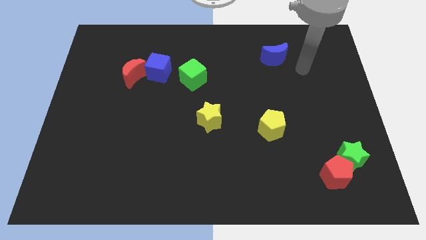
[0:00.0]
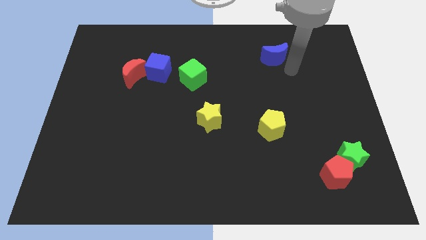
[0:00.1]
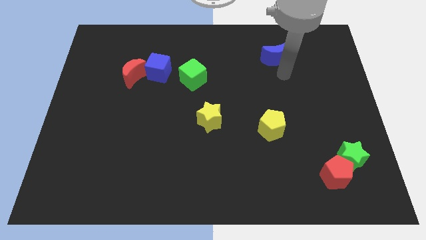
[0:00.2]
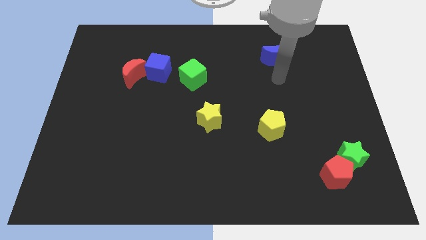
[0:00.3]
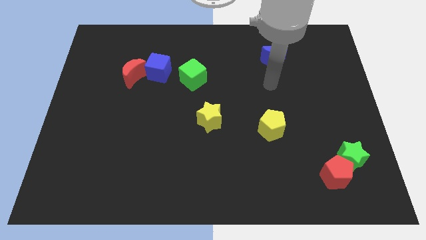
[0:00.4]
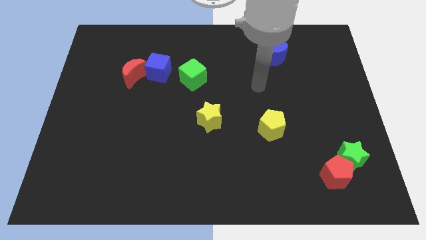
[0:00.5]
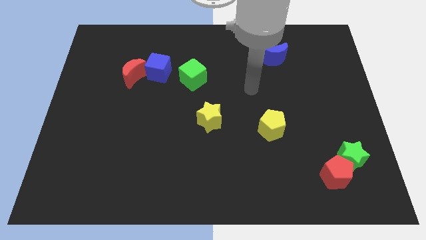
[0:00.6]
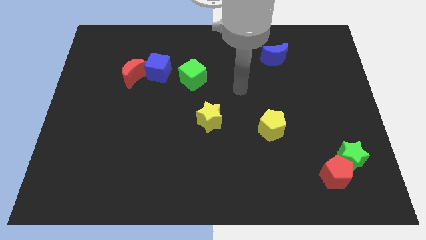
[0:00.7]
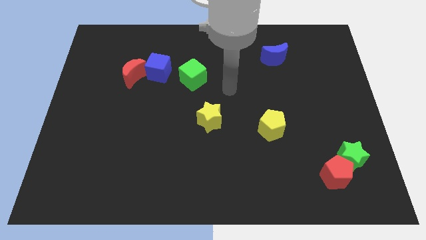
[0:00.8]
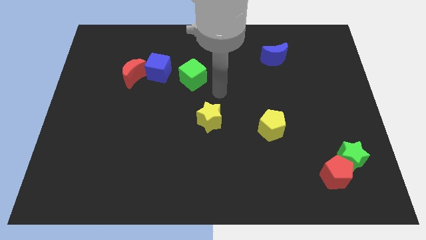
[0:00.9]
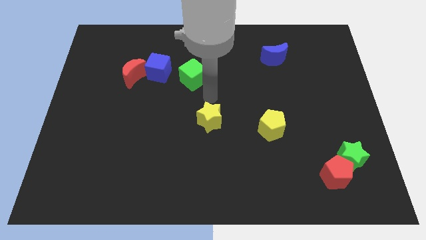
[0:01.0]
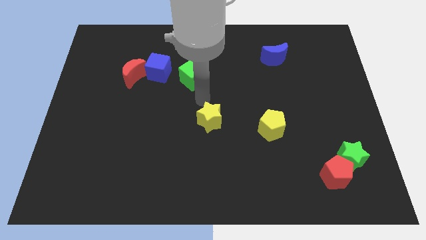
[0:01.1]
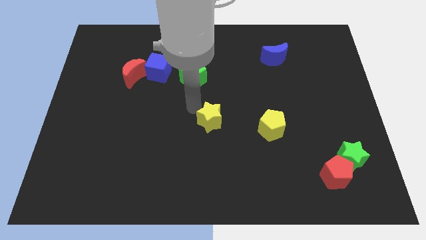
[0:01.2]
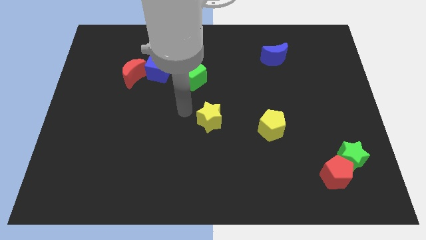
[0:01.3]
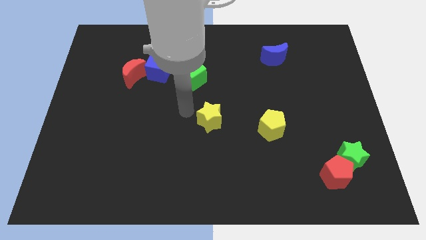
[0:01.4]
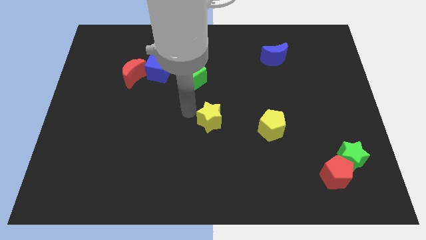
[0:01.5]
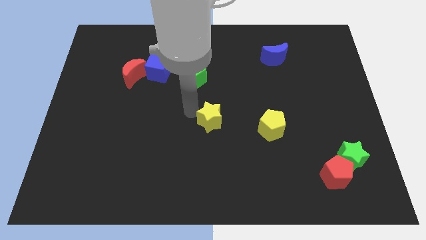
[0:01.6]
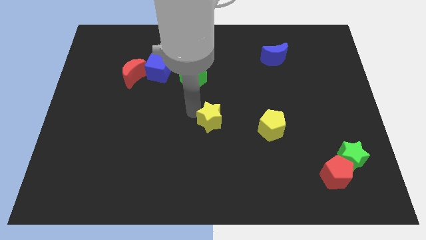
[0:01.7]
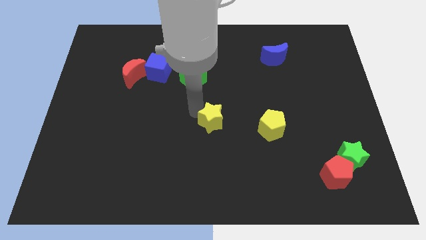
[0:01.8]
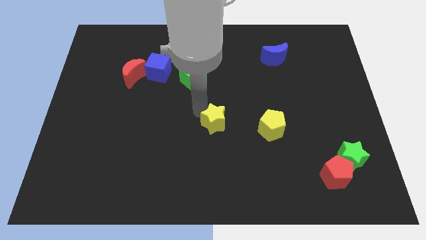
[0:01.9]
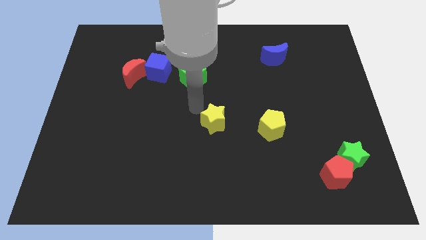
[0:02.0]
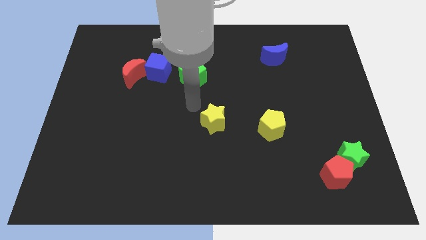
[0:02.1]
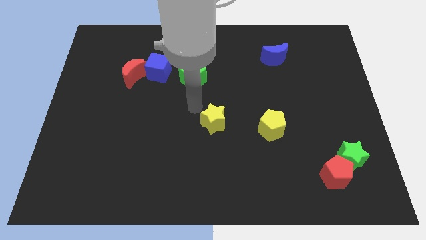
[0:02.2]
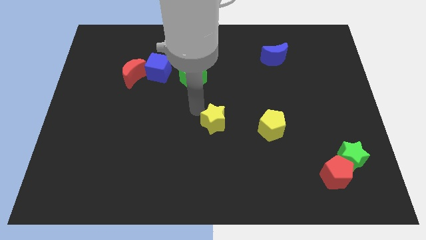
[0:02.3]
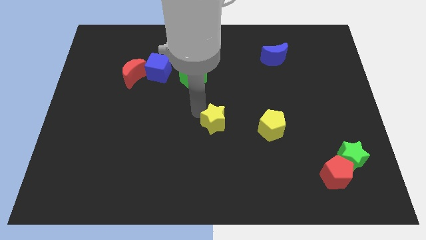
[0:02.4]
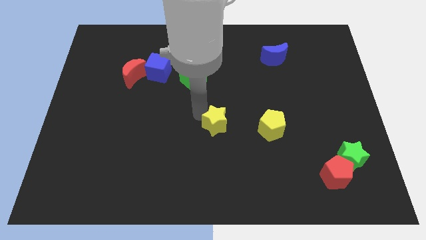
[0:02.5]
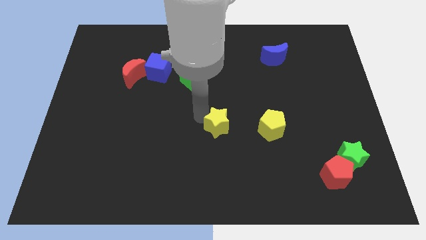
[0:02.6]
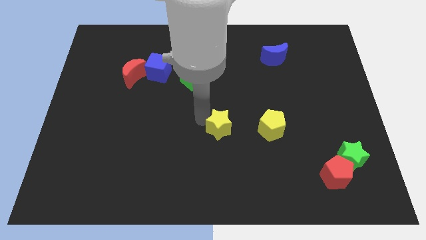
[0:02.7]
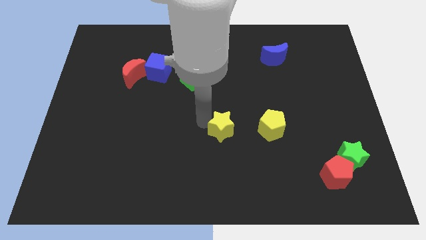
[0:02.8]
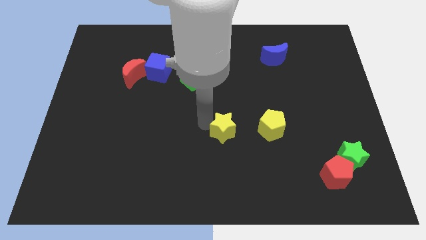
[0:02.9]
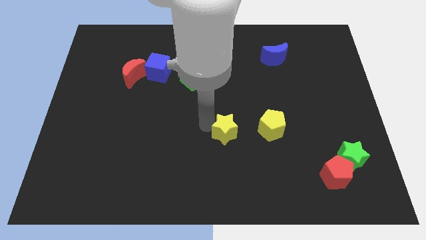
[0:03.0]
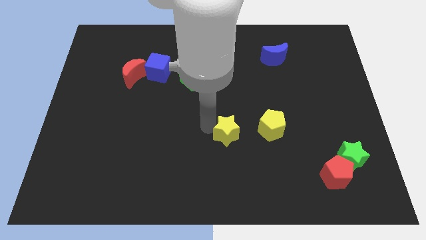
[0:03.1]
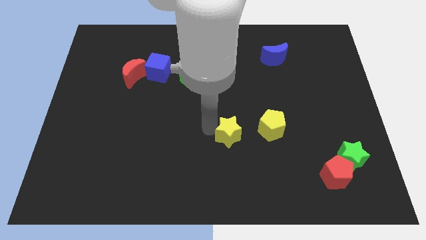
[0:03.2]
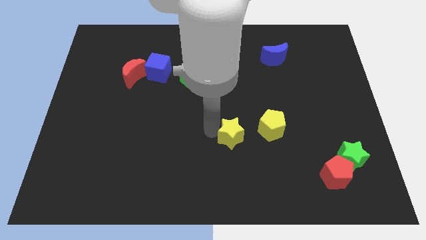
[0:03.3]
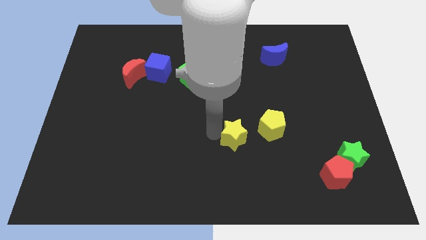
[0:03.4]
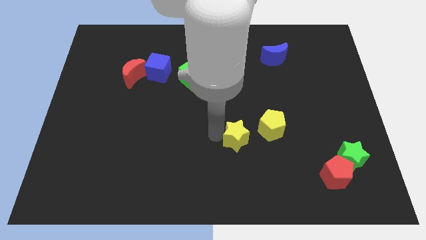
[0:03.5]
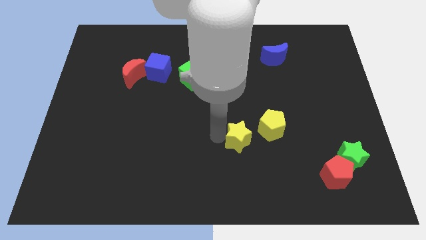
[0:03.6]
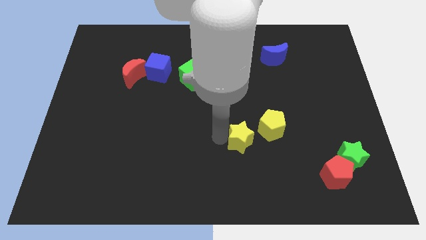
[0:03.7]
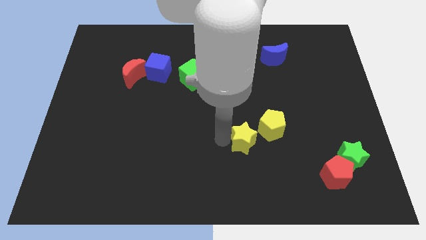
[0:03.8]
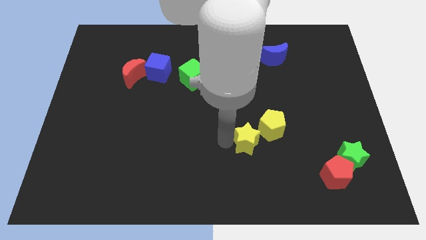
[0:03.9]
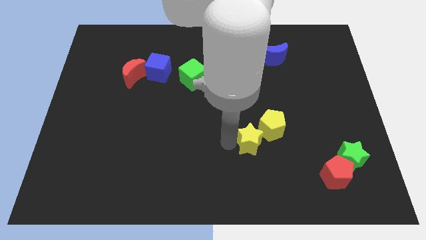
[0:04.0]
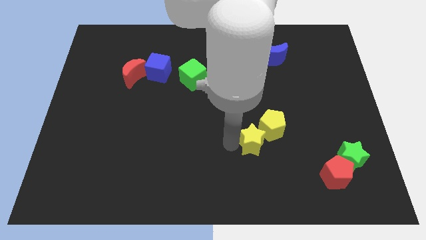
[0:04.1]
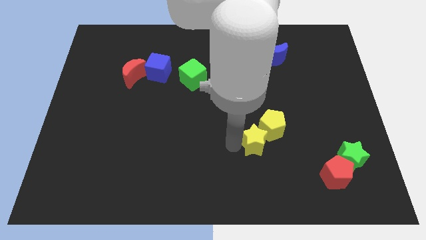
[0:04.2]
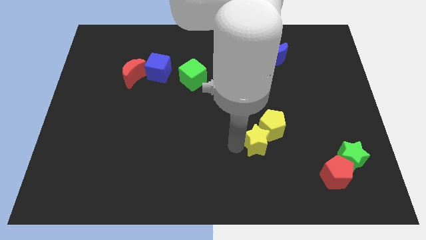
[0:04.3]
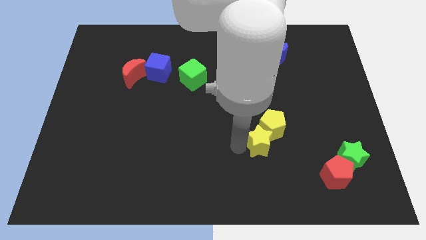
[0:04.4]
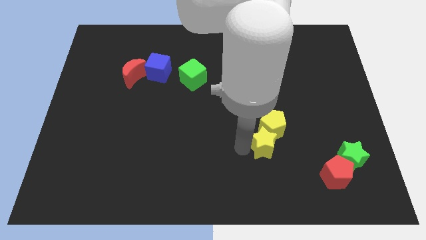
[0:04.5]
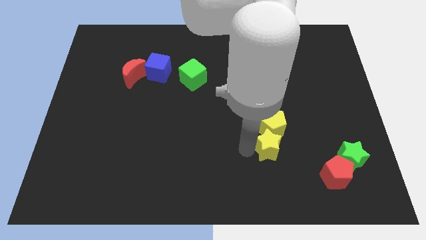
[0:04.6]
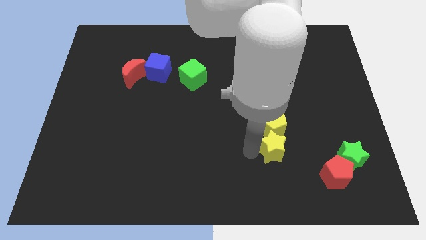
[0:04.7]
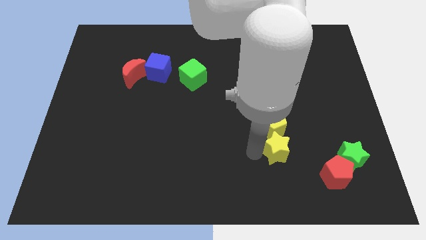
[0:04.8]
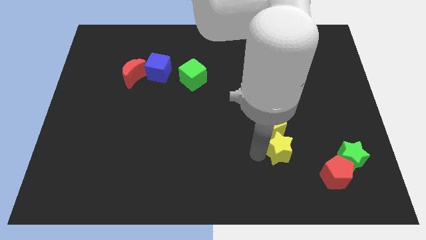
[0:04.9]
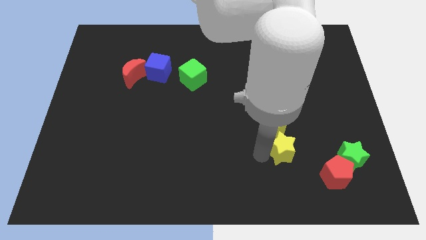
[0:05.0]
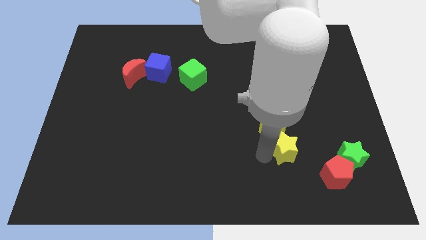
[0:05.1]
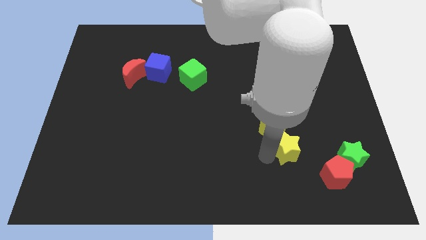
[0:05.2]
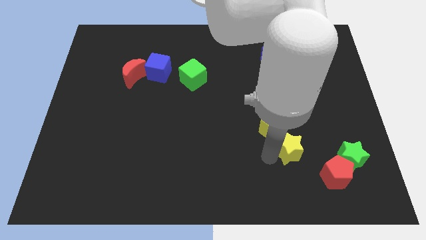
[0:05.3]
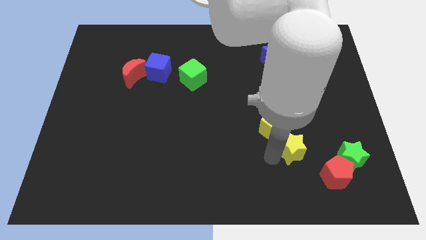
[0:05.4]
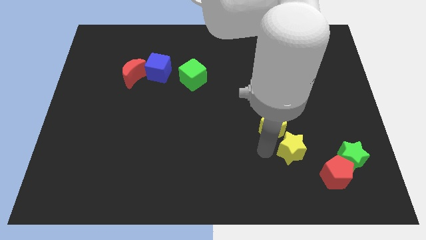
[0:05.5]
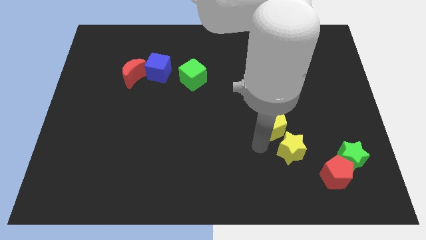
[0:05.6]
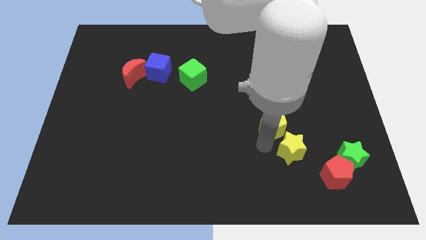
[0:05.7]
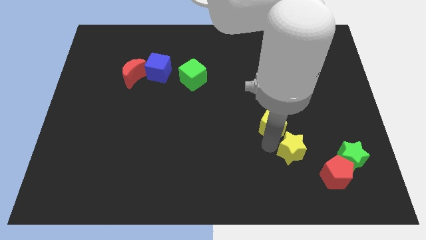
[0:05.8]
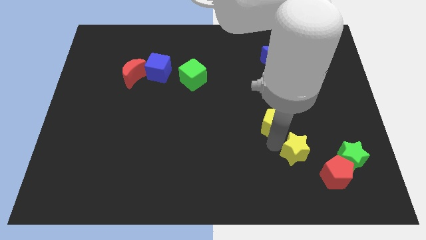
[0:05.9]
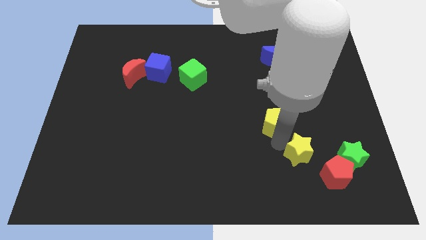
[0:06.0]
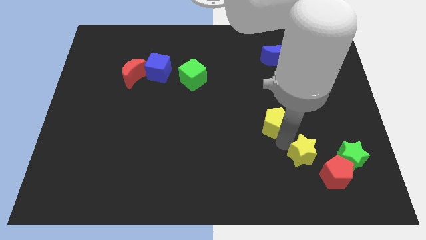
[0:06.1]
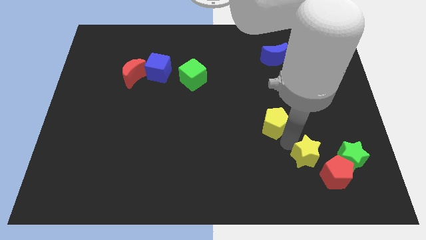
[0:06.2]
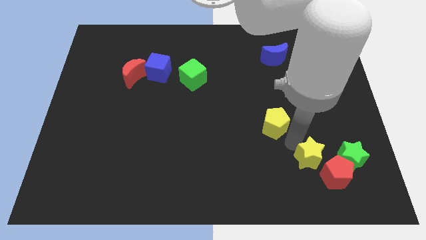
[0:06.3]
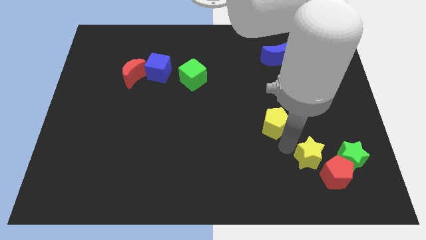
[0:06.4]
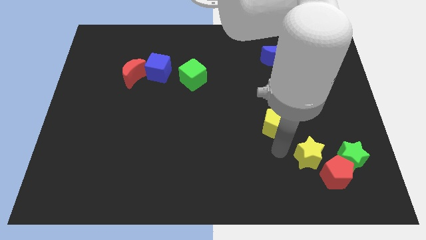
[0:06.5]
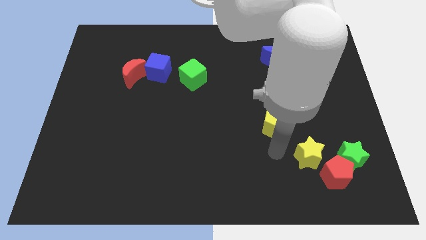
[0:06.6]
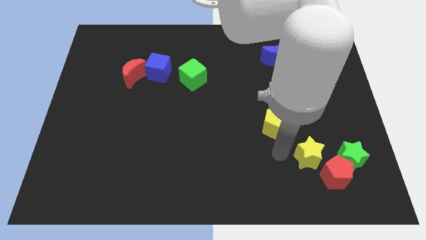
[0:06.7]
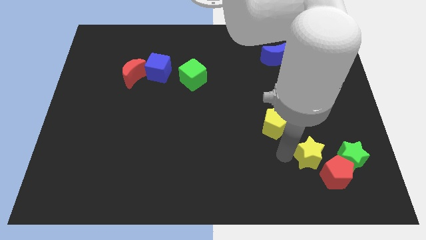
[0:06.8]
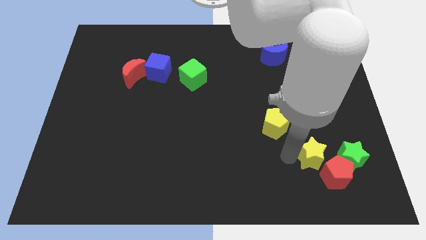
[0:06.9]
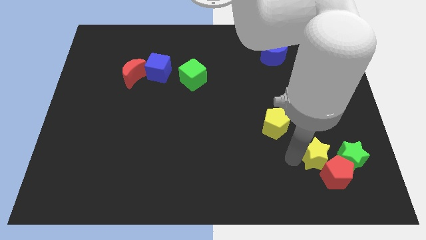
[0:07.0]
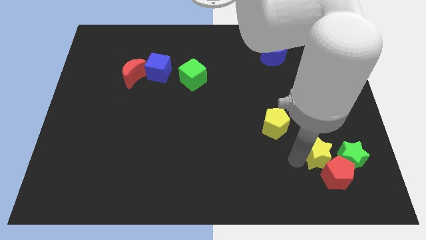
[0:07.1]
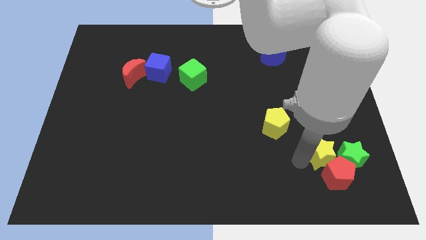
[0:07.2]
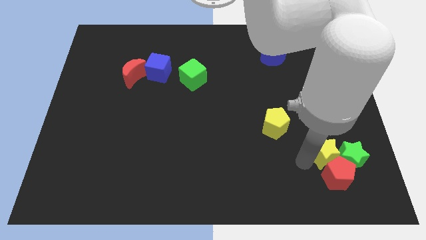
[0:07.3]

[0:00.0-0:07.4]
push the yellow star towards the green star

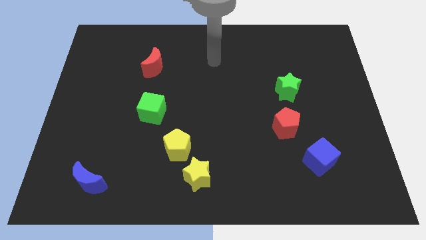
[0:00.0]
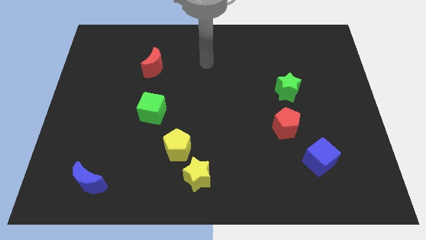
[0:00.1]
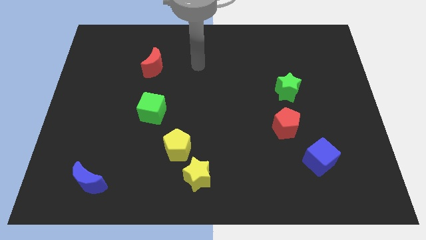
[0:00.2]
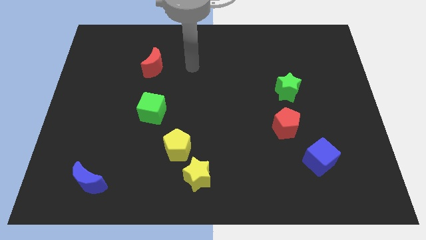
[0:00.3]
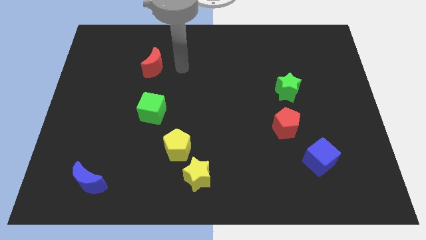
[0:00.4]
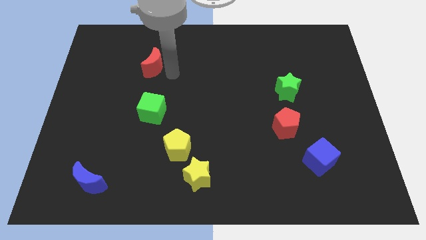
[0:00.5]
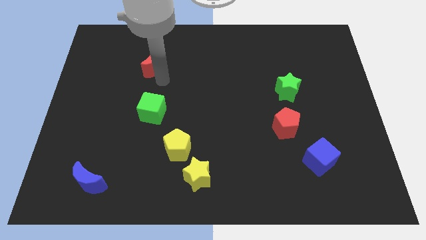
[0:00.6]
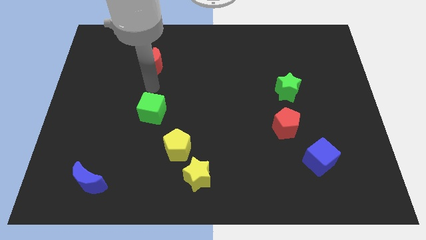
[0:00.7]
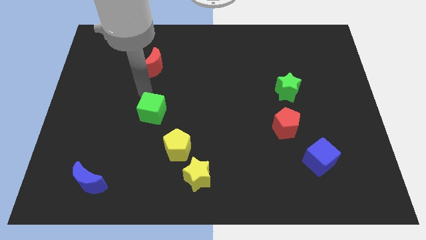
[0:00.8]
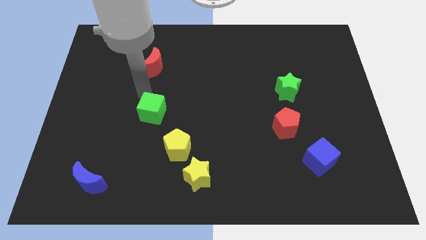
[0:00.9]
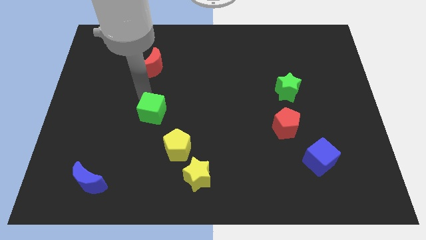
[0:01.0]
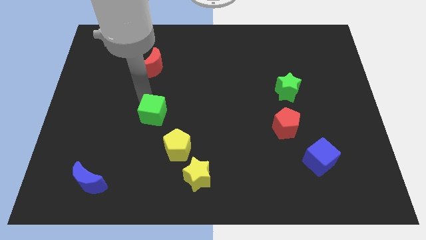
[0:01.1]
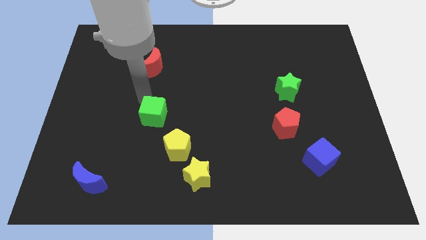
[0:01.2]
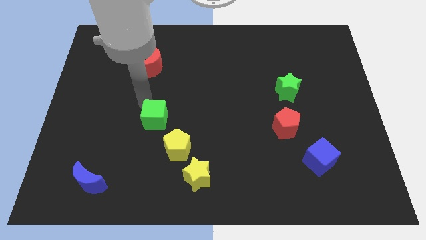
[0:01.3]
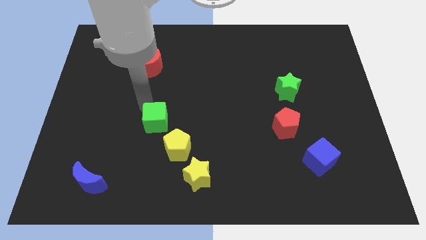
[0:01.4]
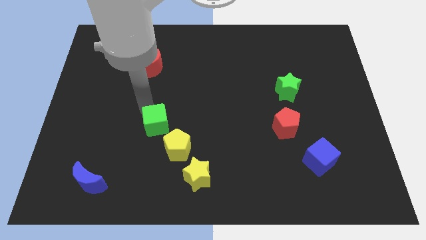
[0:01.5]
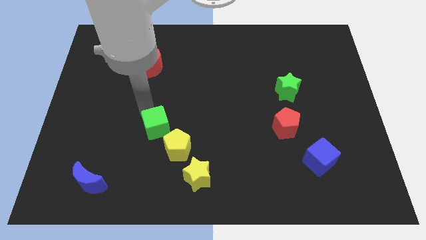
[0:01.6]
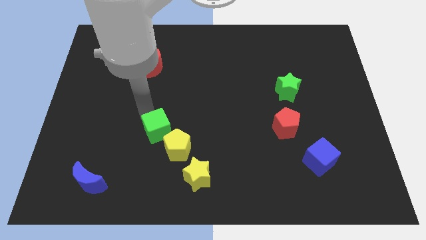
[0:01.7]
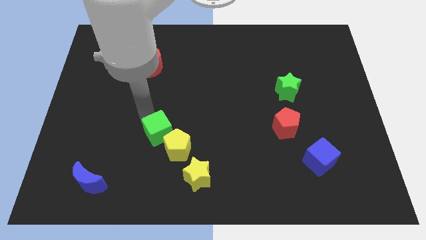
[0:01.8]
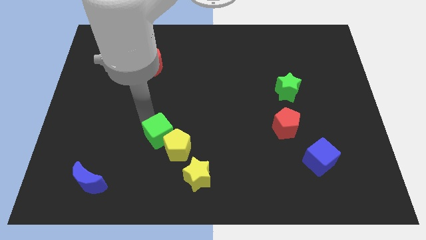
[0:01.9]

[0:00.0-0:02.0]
move the green cube close to the yellow pentagon
